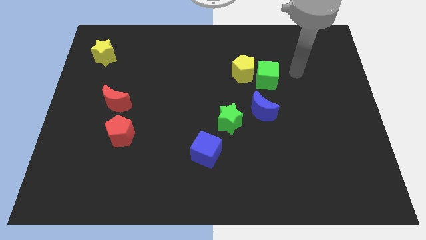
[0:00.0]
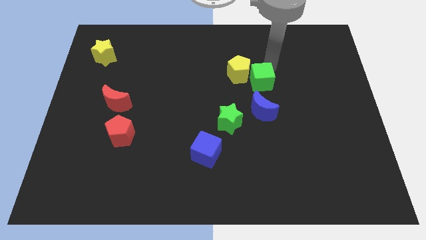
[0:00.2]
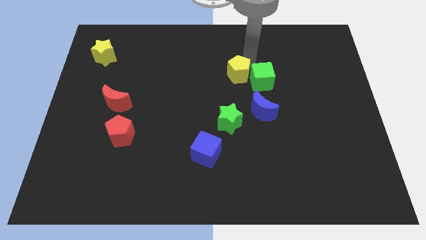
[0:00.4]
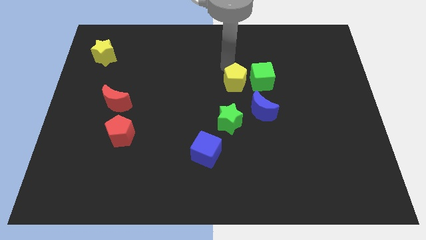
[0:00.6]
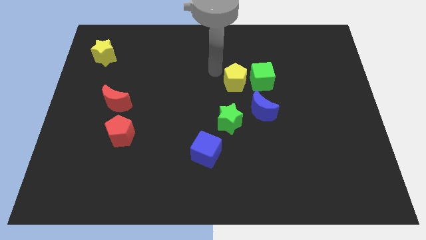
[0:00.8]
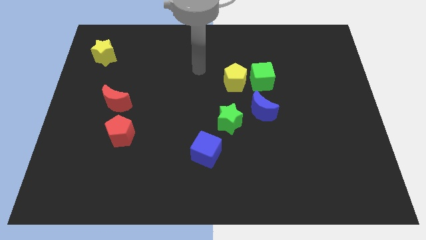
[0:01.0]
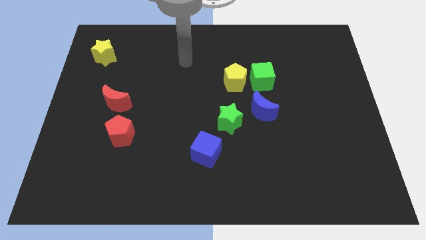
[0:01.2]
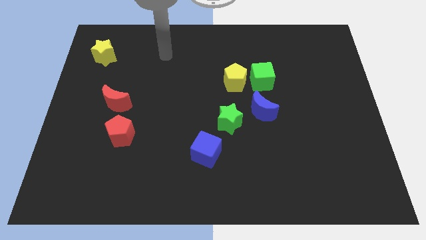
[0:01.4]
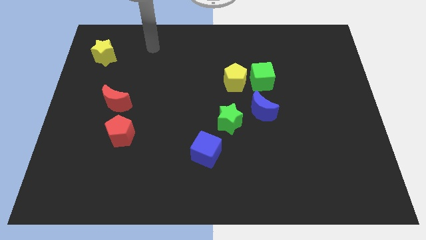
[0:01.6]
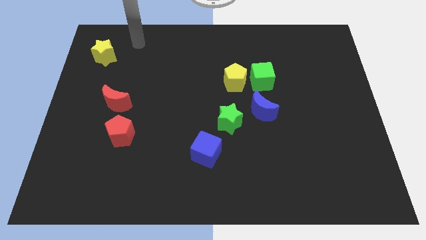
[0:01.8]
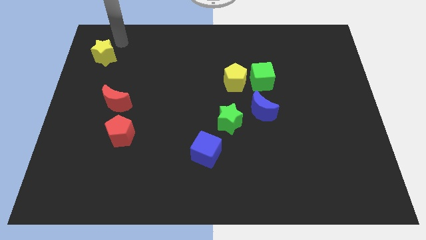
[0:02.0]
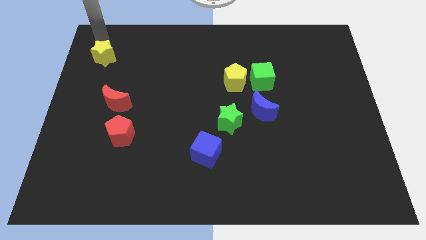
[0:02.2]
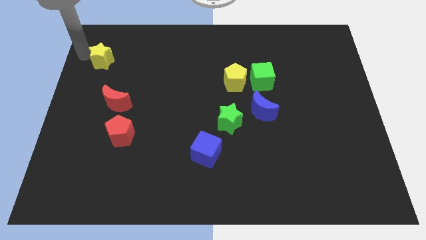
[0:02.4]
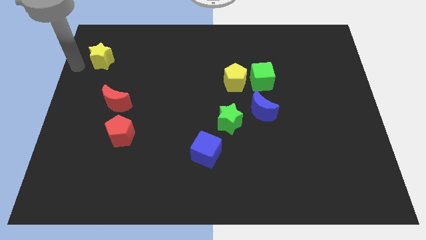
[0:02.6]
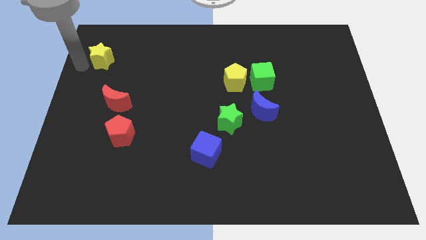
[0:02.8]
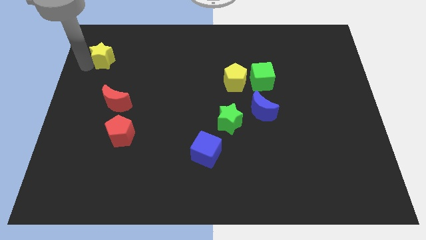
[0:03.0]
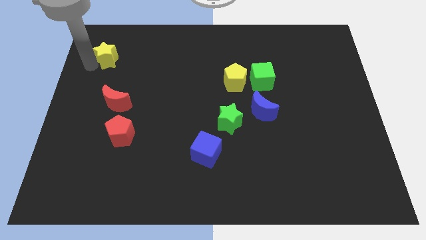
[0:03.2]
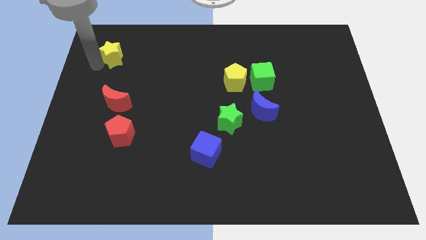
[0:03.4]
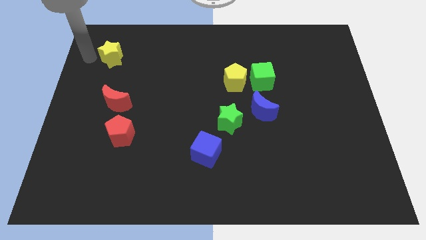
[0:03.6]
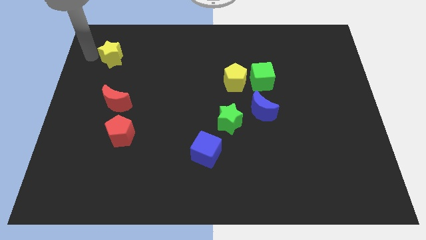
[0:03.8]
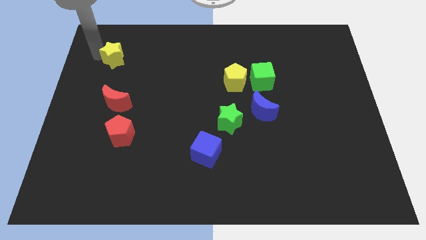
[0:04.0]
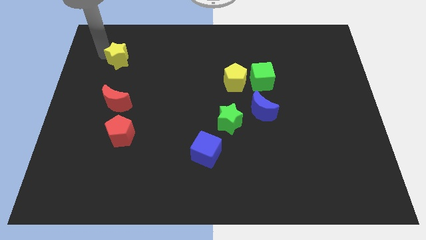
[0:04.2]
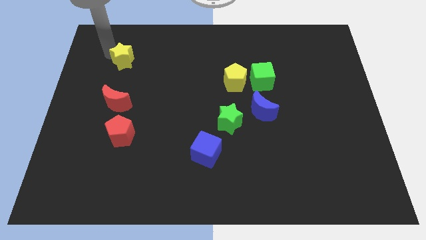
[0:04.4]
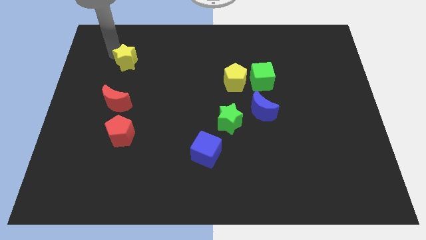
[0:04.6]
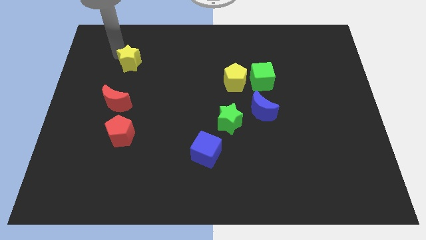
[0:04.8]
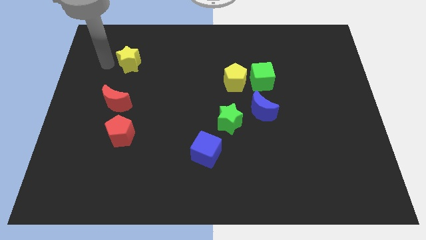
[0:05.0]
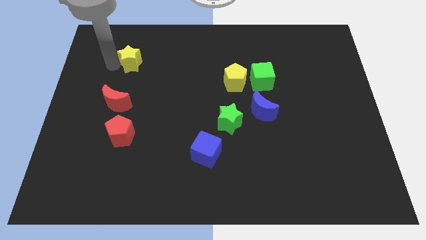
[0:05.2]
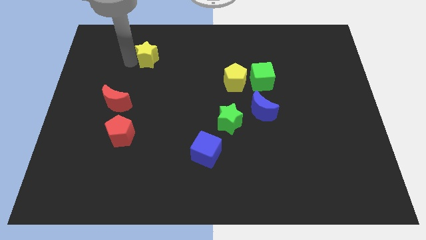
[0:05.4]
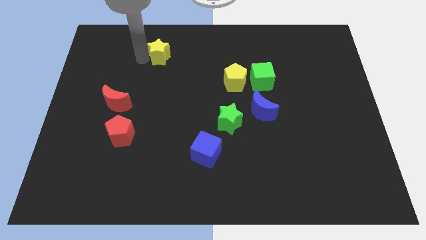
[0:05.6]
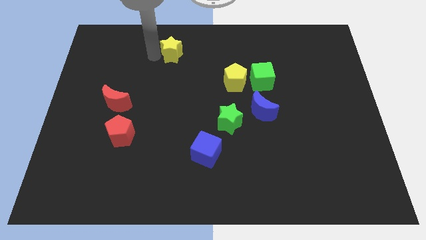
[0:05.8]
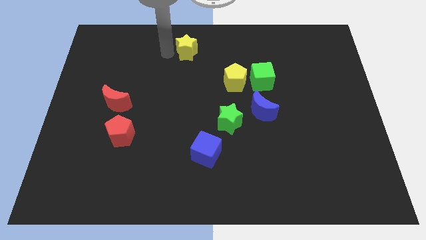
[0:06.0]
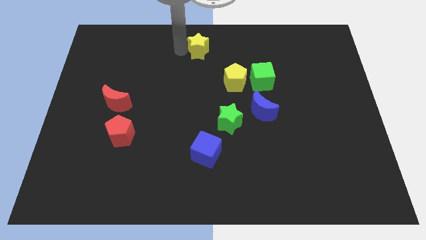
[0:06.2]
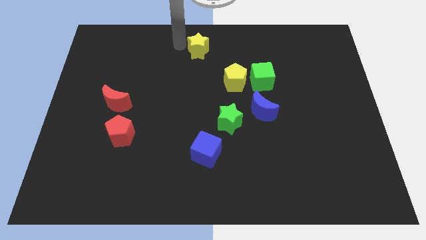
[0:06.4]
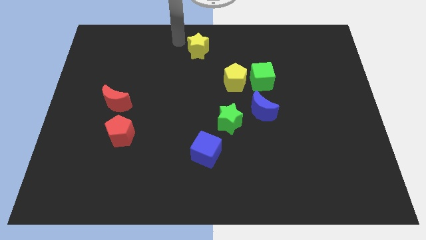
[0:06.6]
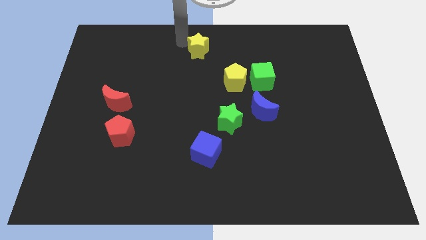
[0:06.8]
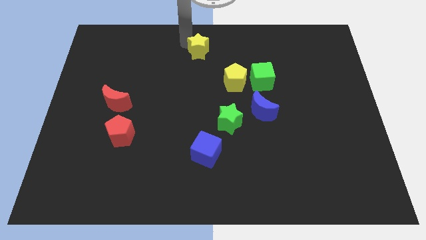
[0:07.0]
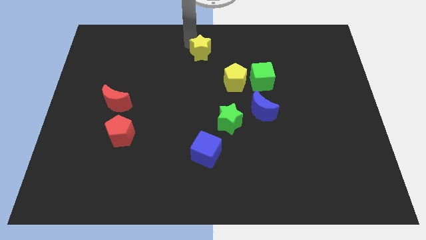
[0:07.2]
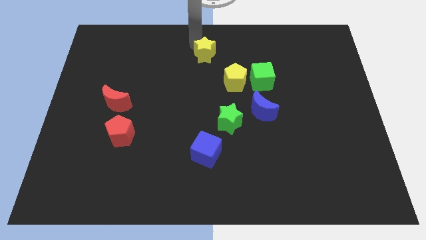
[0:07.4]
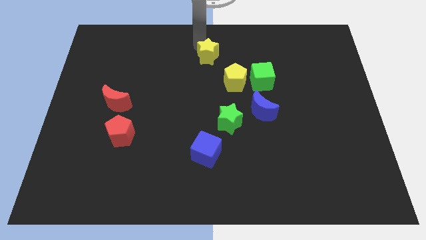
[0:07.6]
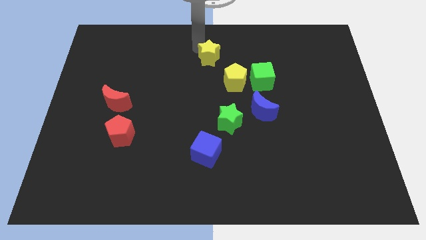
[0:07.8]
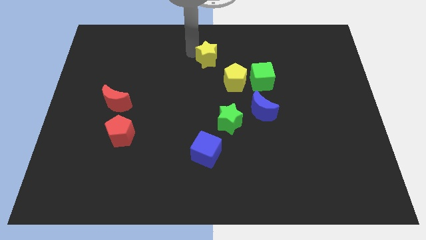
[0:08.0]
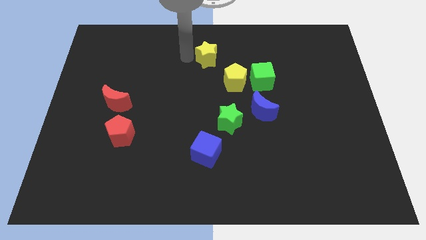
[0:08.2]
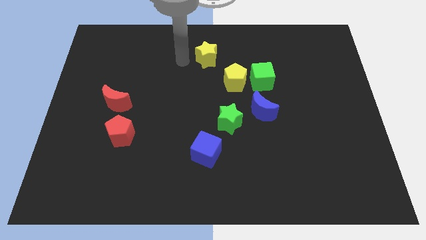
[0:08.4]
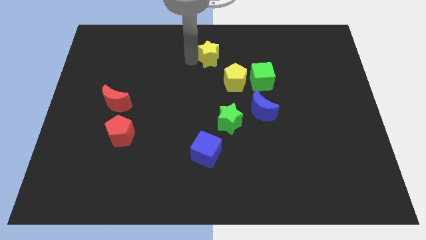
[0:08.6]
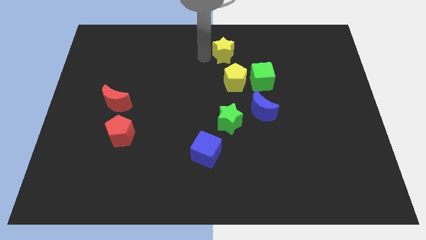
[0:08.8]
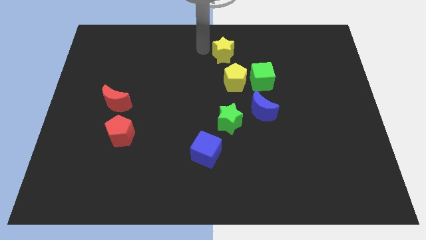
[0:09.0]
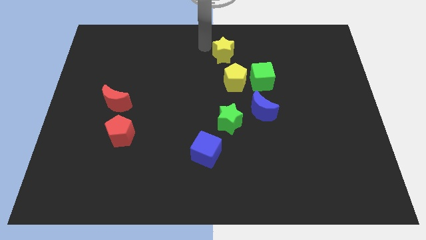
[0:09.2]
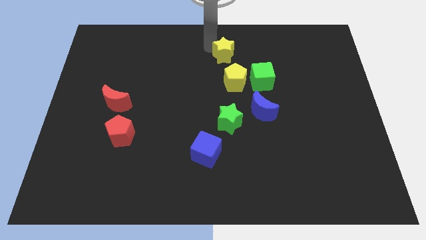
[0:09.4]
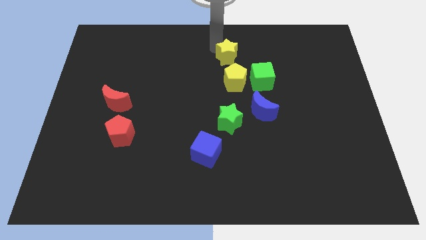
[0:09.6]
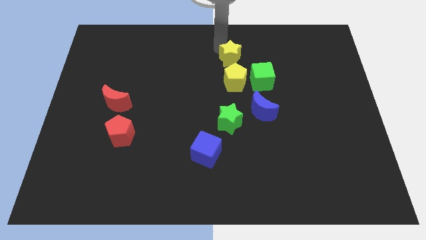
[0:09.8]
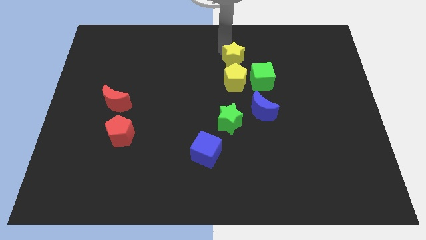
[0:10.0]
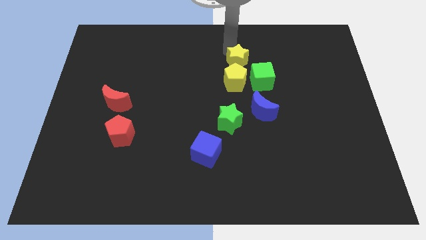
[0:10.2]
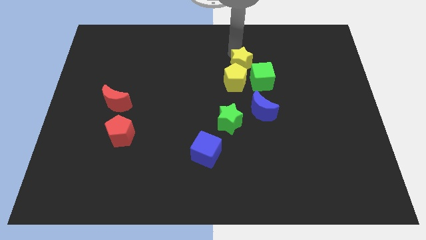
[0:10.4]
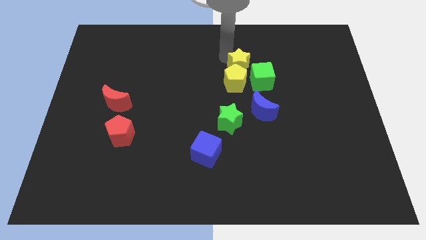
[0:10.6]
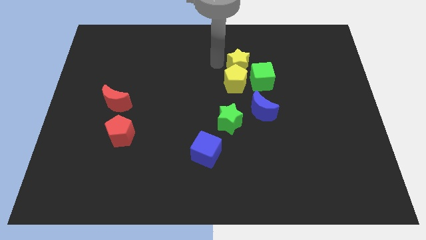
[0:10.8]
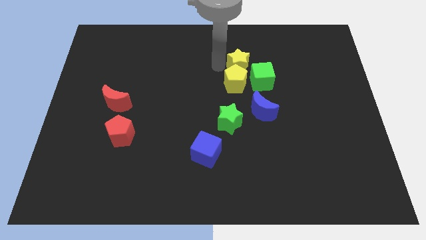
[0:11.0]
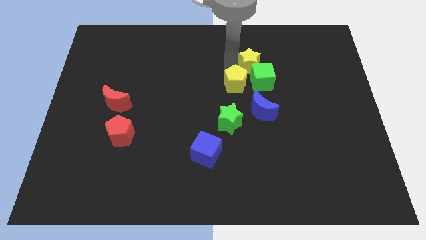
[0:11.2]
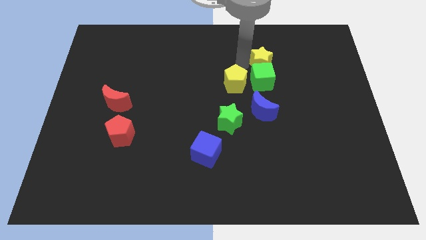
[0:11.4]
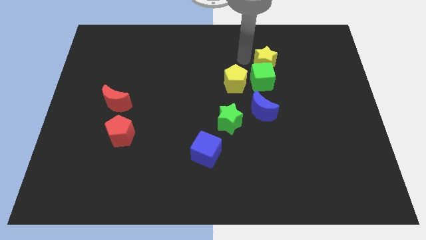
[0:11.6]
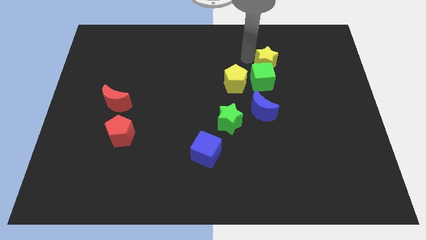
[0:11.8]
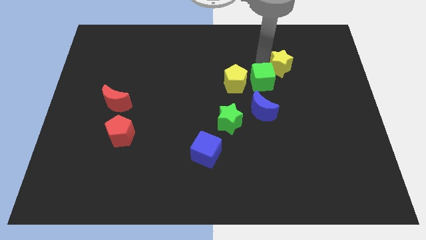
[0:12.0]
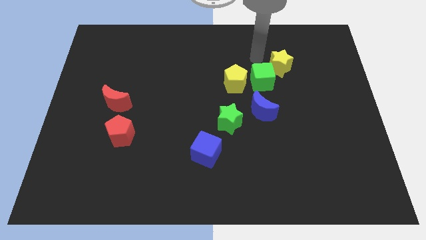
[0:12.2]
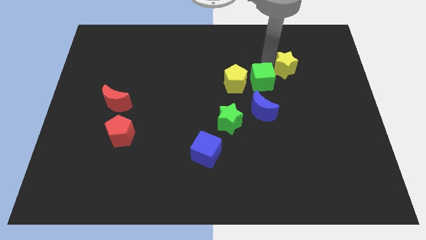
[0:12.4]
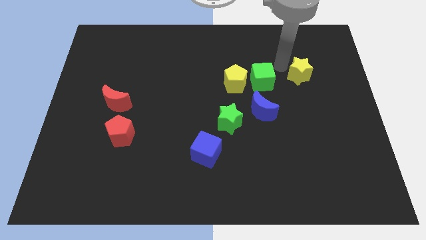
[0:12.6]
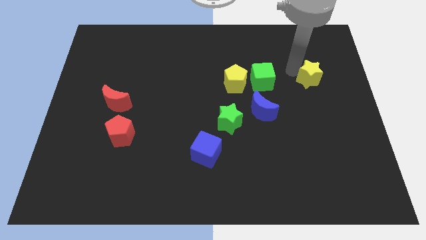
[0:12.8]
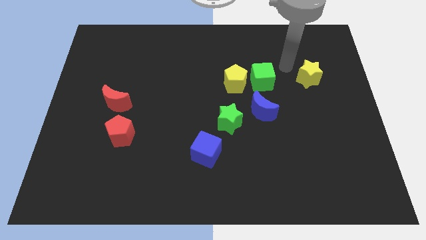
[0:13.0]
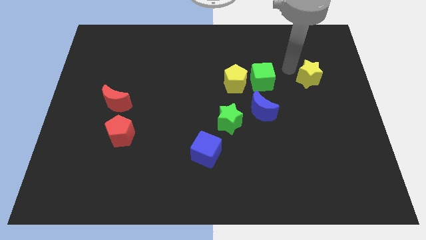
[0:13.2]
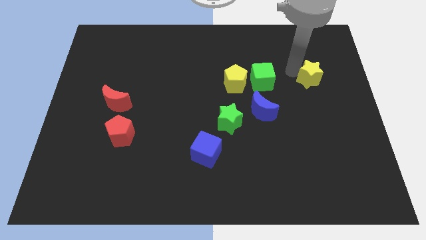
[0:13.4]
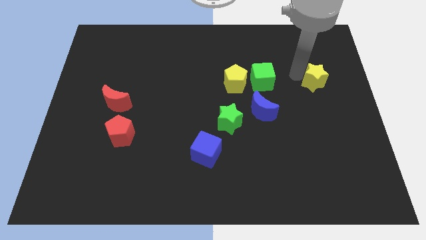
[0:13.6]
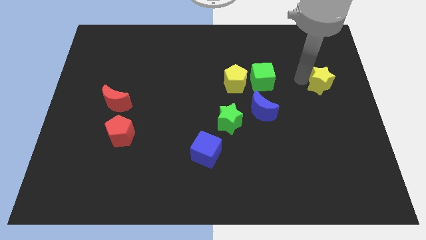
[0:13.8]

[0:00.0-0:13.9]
put the yellow star to the right side of the board

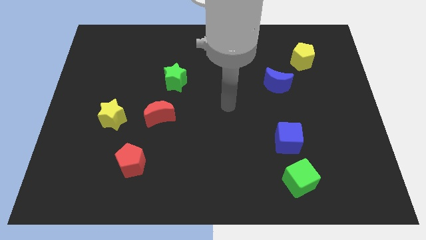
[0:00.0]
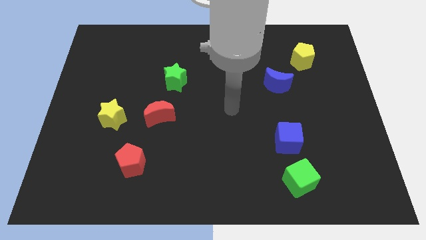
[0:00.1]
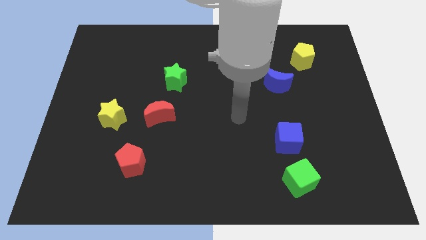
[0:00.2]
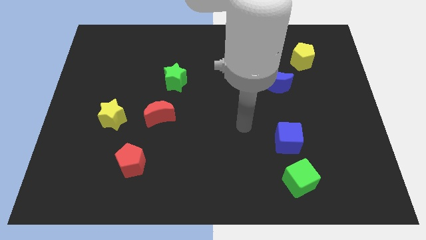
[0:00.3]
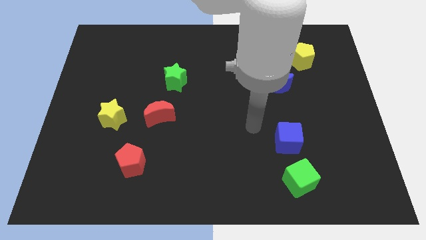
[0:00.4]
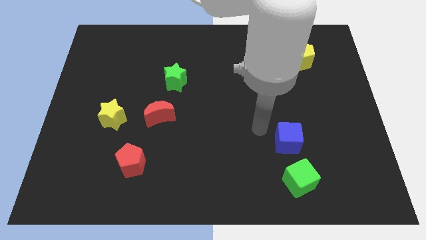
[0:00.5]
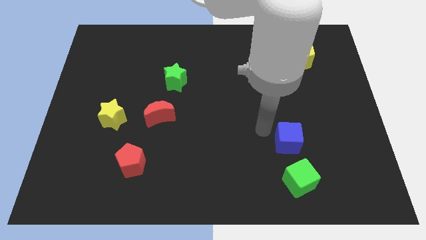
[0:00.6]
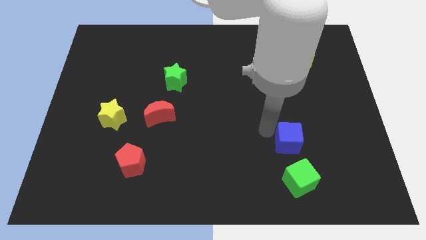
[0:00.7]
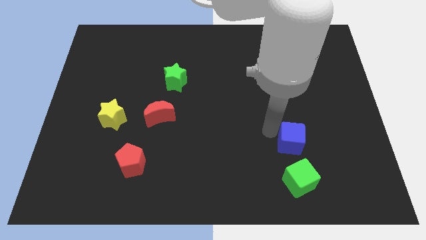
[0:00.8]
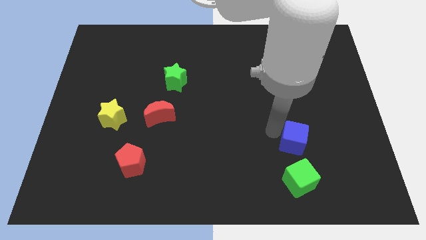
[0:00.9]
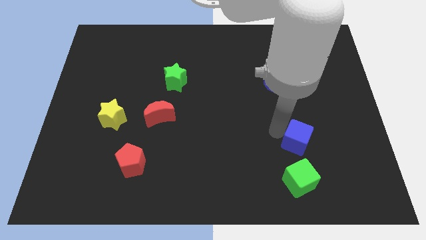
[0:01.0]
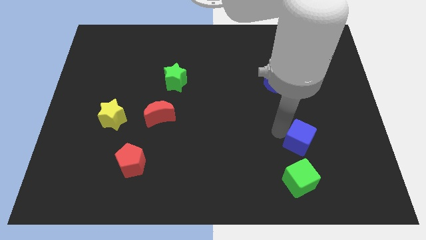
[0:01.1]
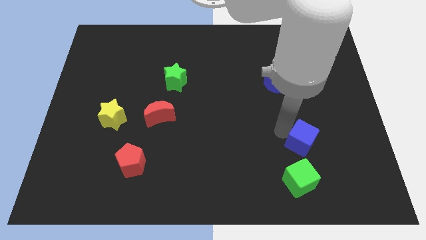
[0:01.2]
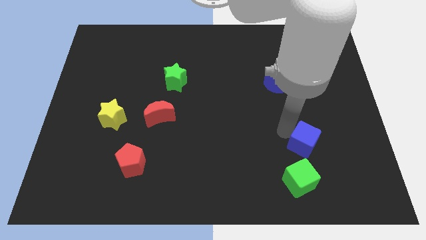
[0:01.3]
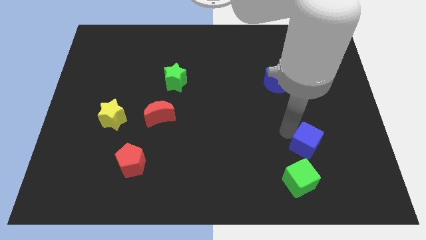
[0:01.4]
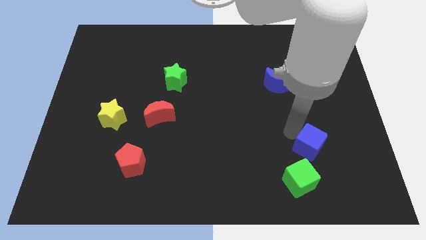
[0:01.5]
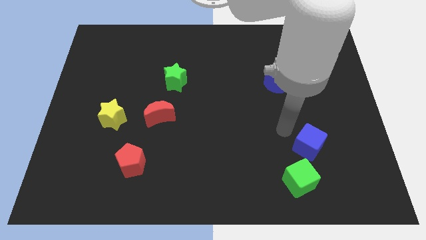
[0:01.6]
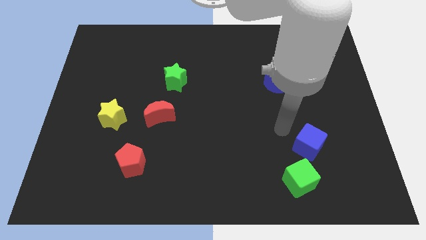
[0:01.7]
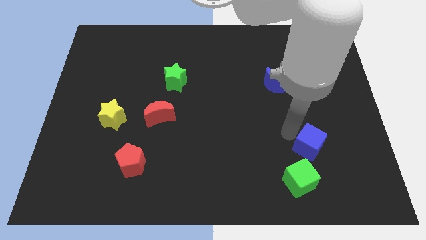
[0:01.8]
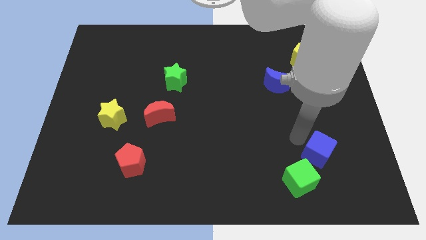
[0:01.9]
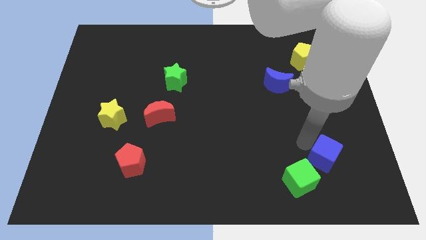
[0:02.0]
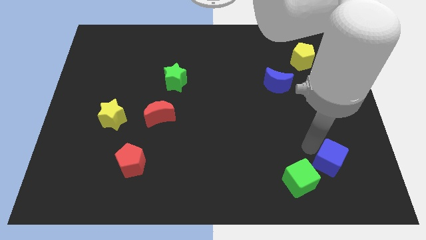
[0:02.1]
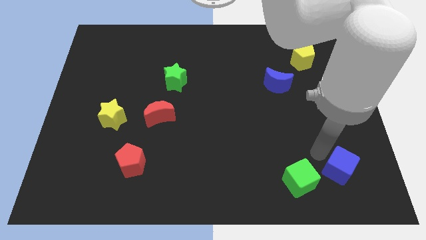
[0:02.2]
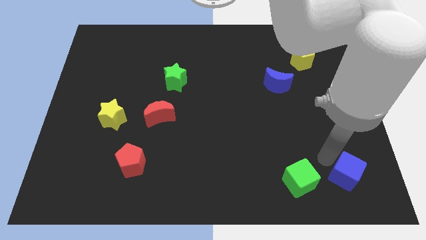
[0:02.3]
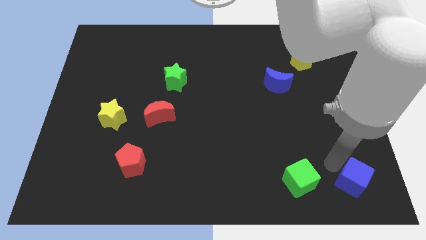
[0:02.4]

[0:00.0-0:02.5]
move the blue cube to the bottom right
